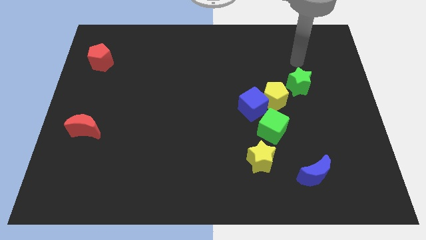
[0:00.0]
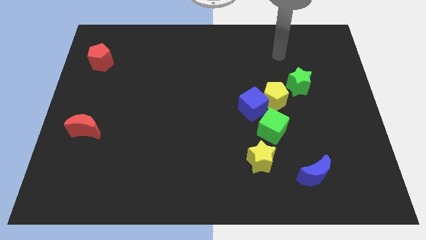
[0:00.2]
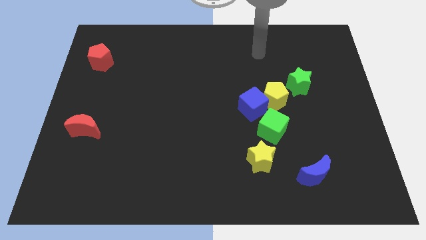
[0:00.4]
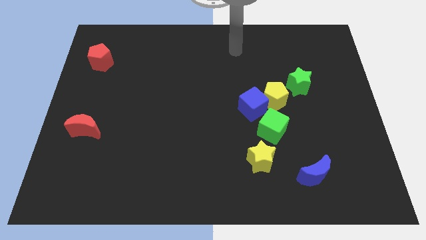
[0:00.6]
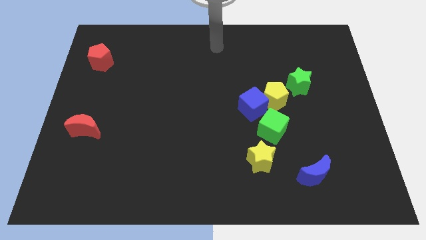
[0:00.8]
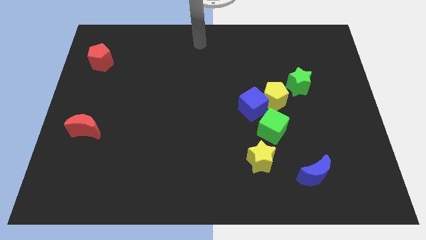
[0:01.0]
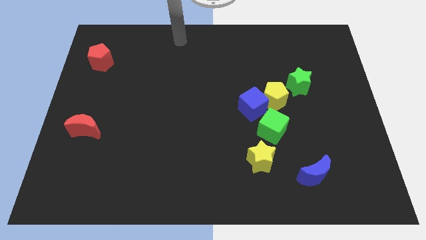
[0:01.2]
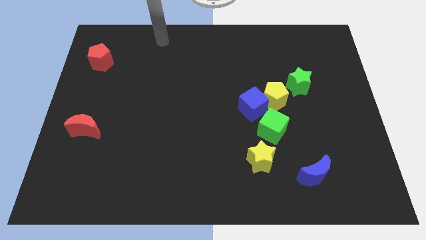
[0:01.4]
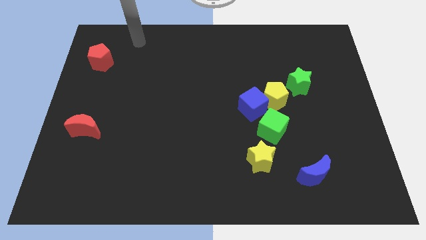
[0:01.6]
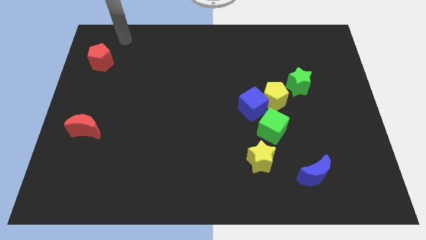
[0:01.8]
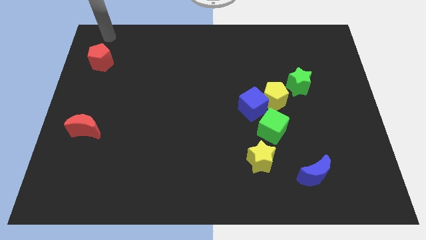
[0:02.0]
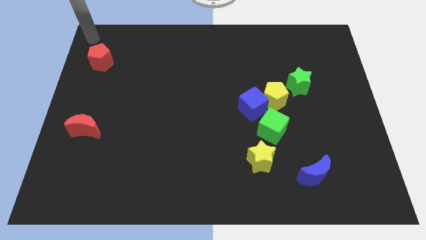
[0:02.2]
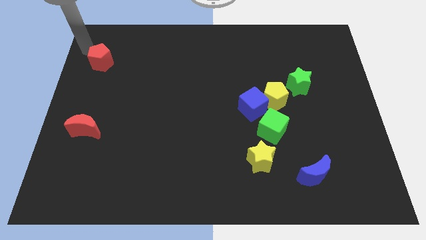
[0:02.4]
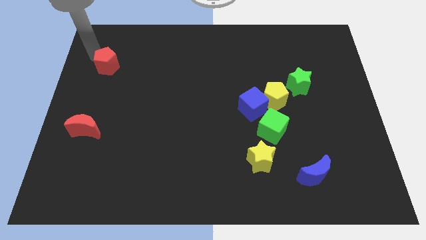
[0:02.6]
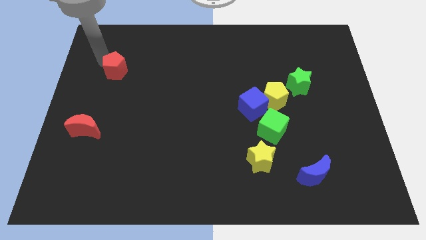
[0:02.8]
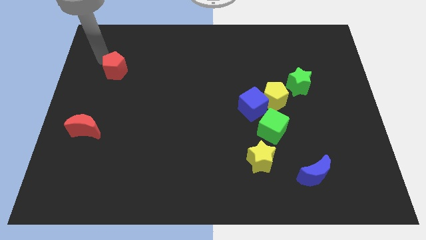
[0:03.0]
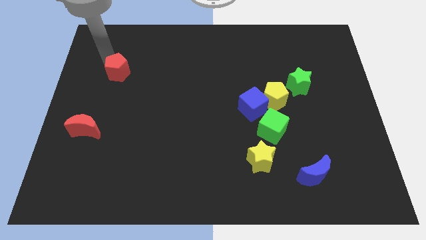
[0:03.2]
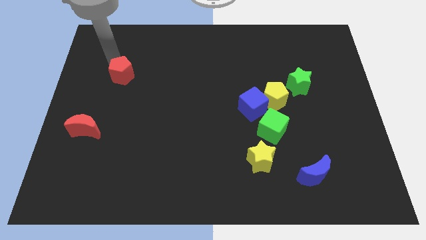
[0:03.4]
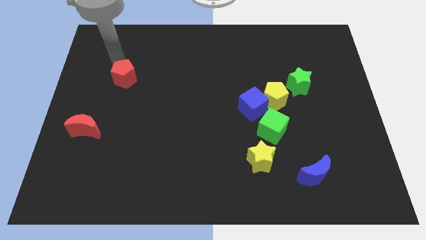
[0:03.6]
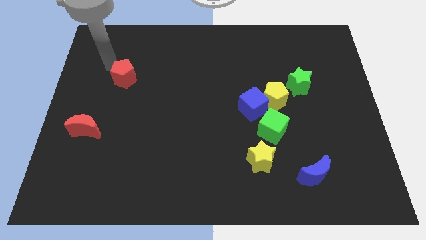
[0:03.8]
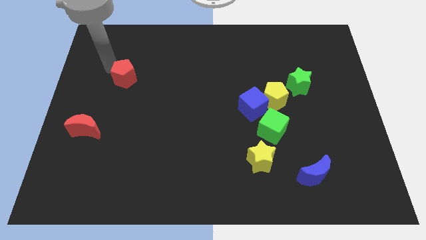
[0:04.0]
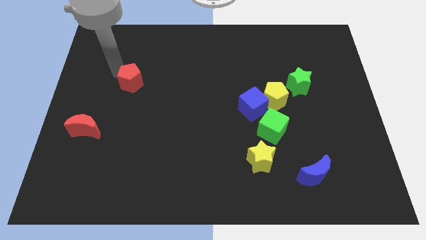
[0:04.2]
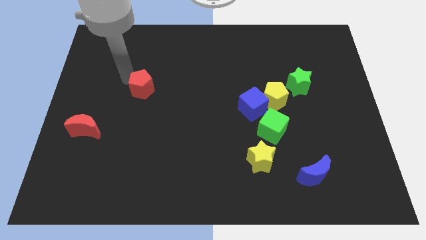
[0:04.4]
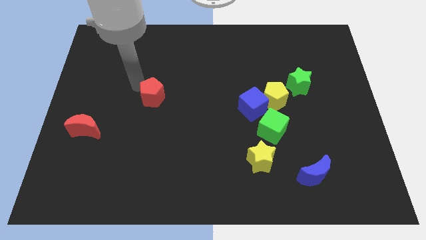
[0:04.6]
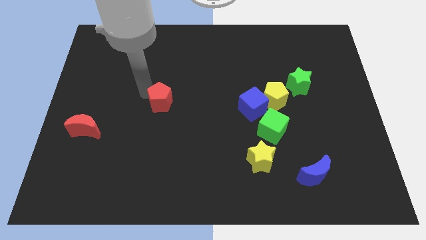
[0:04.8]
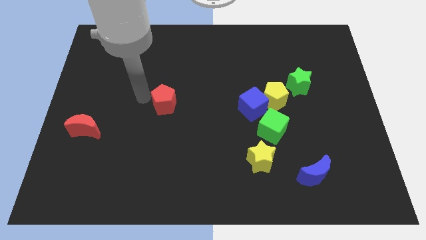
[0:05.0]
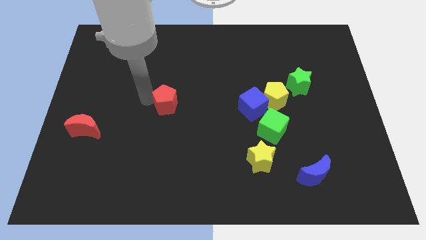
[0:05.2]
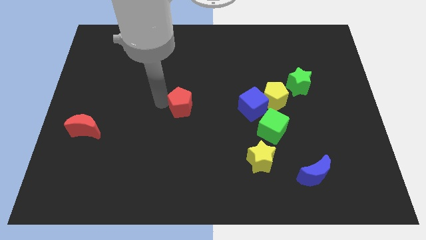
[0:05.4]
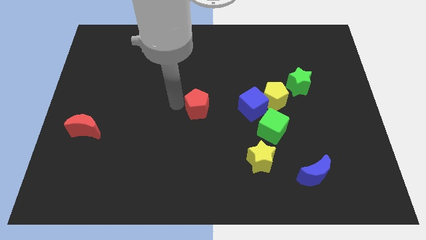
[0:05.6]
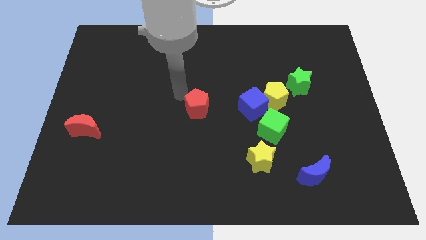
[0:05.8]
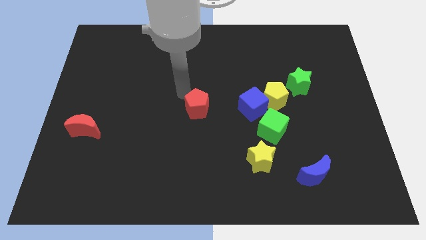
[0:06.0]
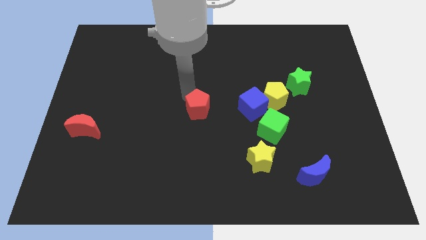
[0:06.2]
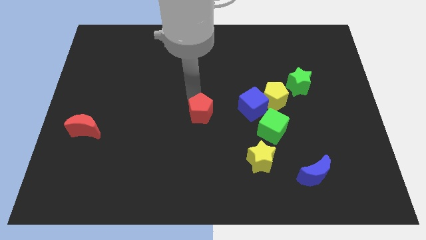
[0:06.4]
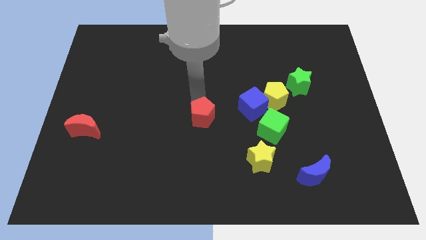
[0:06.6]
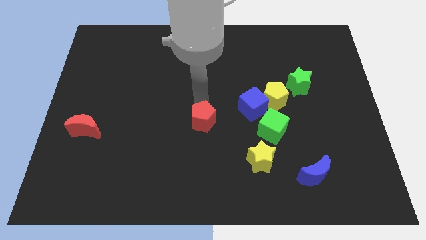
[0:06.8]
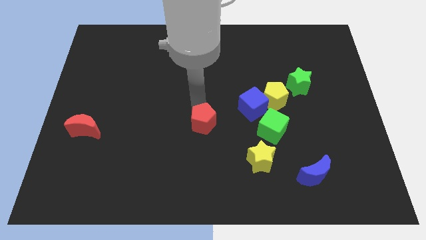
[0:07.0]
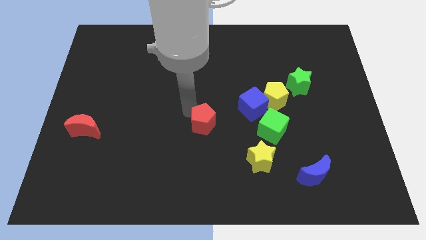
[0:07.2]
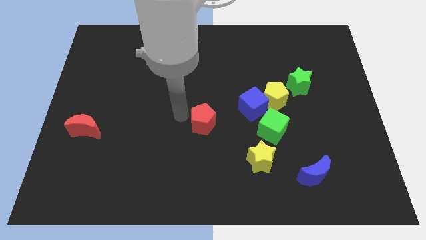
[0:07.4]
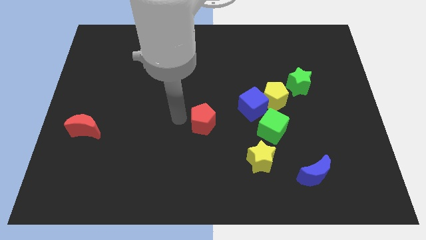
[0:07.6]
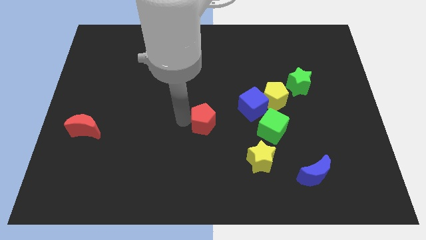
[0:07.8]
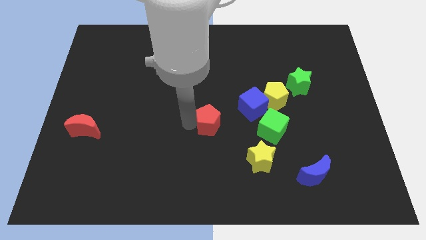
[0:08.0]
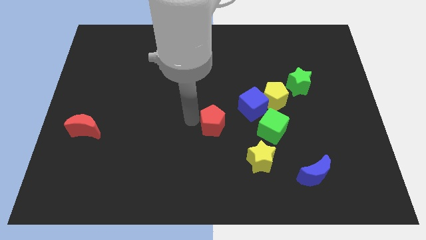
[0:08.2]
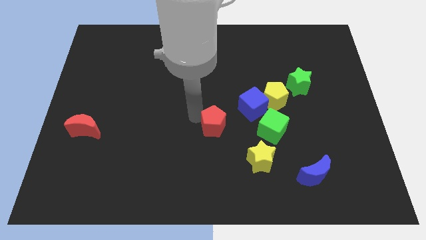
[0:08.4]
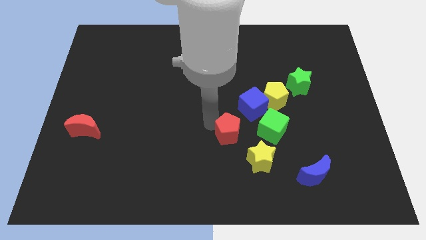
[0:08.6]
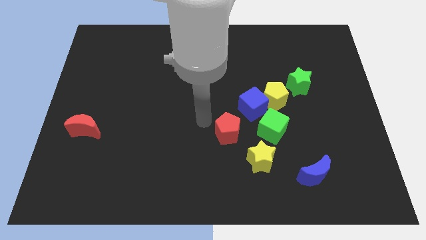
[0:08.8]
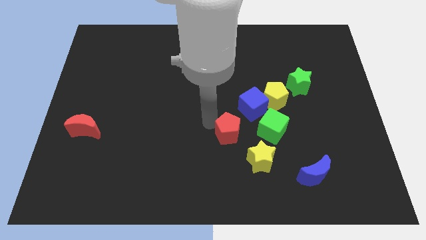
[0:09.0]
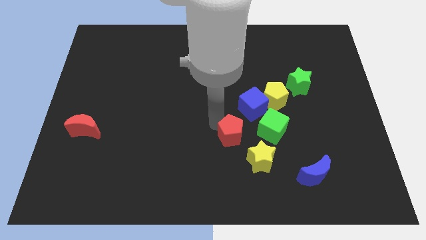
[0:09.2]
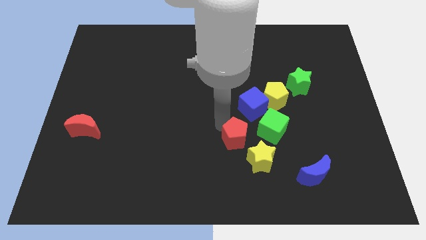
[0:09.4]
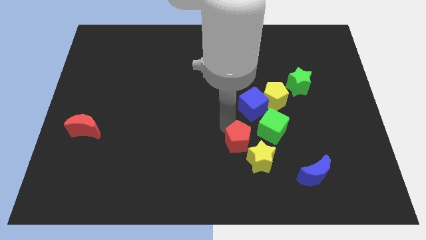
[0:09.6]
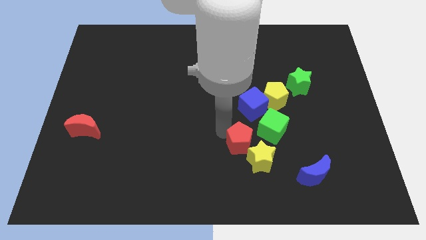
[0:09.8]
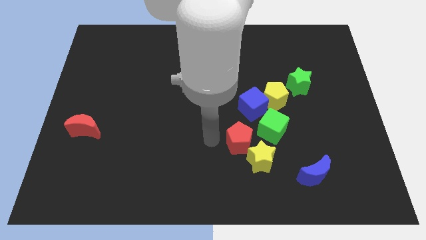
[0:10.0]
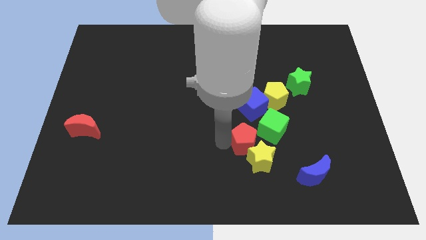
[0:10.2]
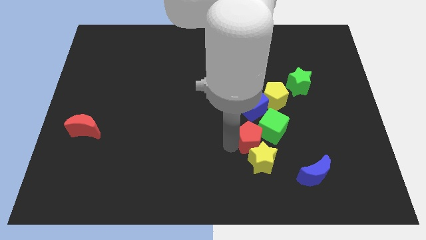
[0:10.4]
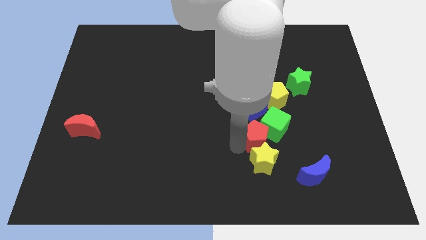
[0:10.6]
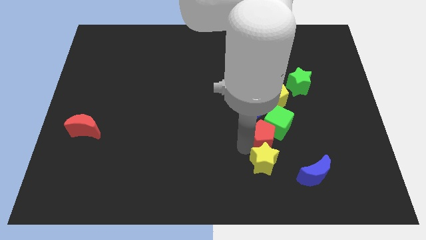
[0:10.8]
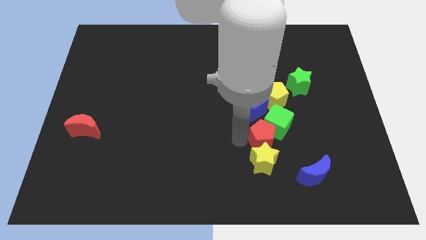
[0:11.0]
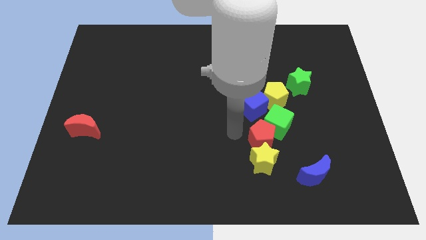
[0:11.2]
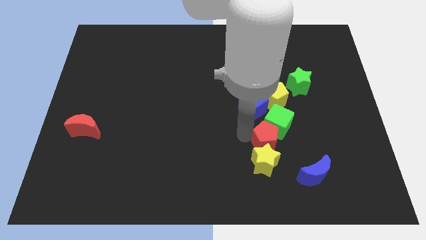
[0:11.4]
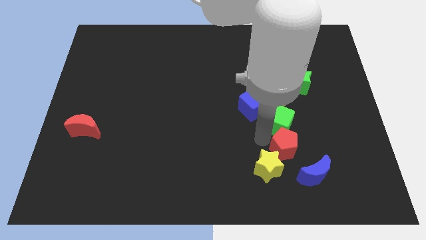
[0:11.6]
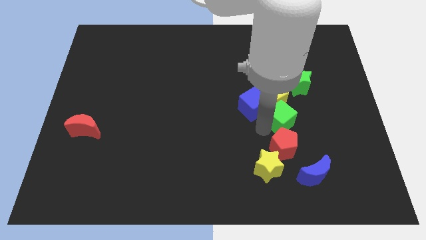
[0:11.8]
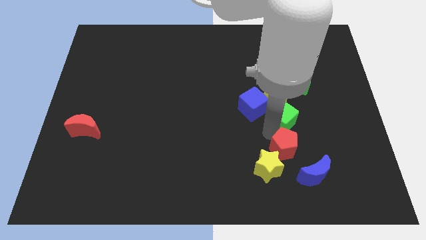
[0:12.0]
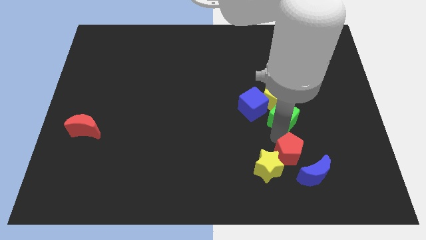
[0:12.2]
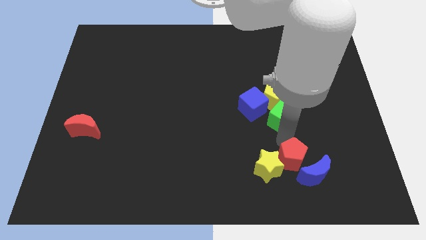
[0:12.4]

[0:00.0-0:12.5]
put the red pentagon towards the blue moon

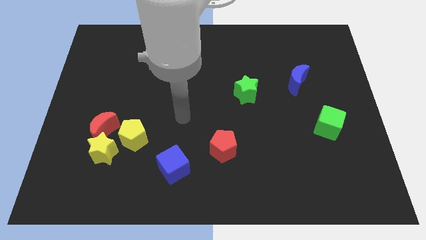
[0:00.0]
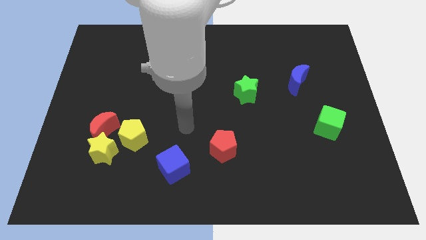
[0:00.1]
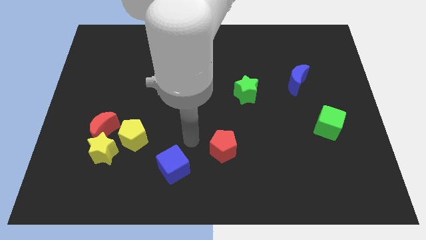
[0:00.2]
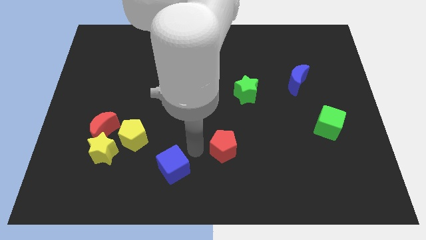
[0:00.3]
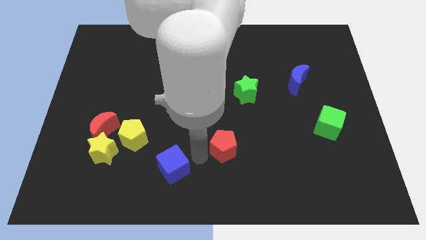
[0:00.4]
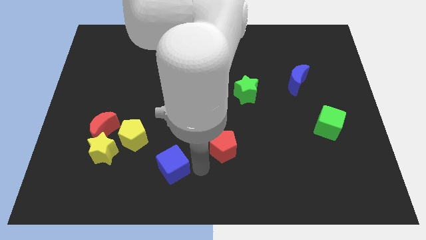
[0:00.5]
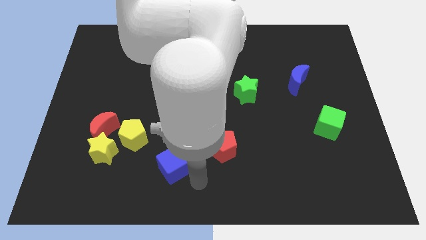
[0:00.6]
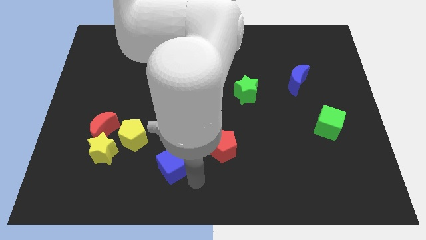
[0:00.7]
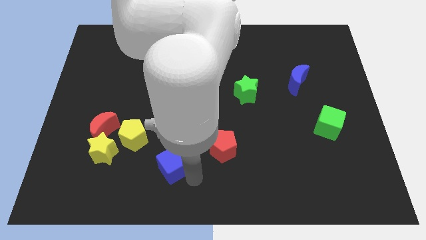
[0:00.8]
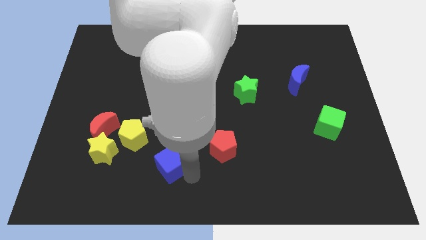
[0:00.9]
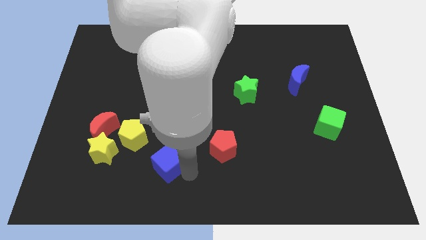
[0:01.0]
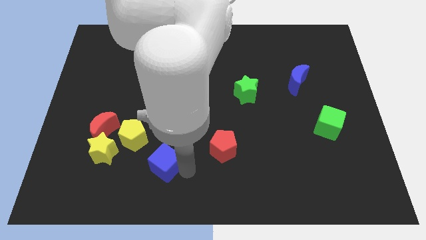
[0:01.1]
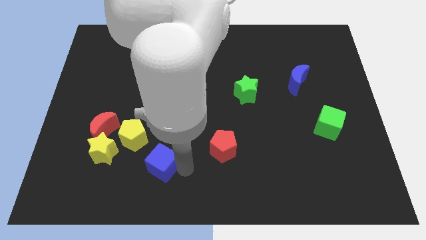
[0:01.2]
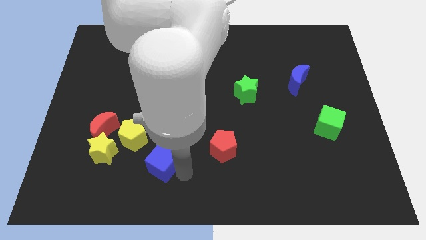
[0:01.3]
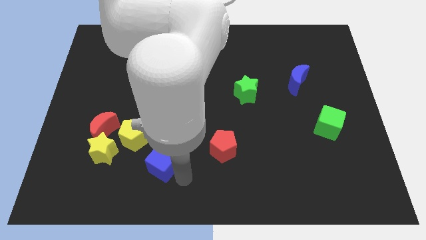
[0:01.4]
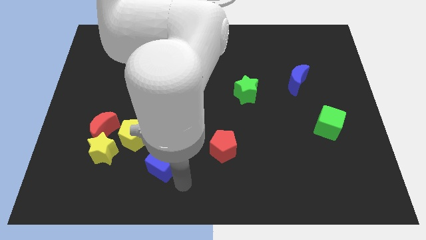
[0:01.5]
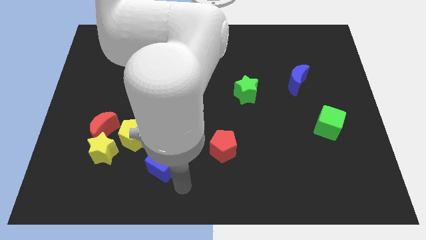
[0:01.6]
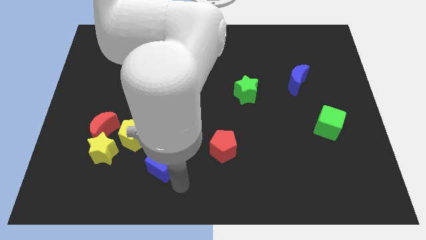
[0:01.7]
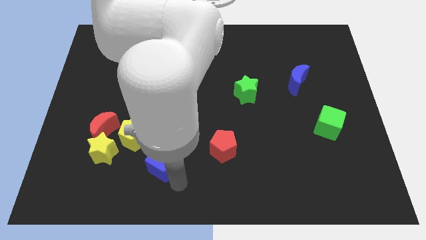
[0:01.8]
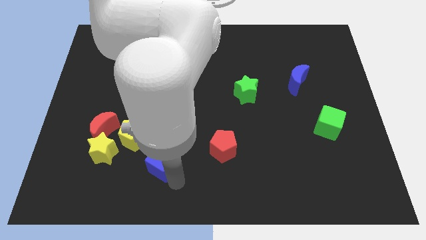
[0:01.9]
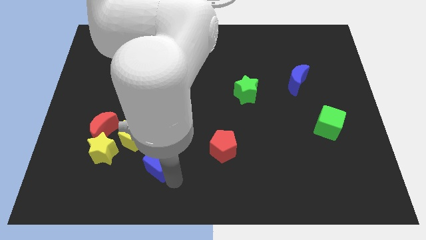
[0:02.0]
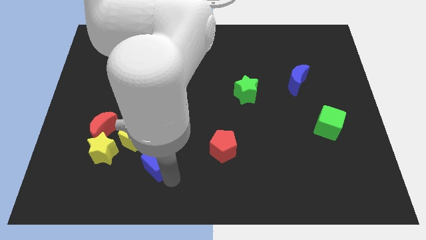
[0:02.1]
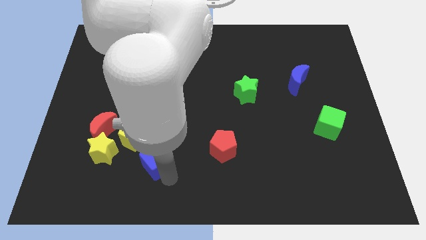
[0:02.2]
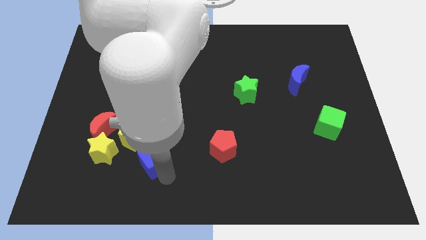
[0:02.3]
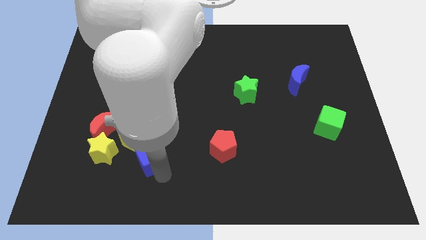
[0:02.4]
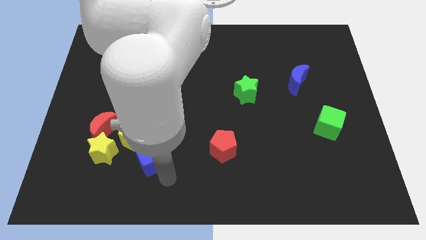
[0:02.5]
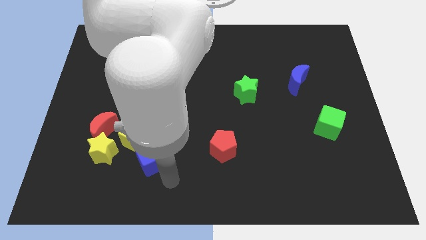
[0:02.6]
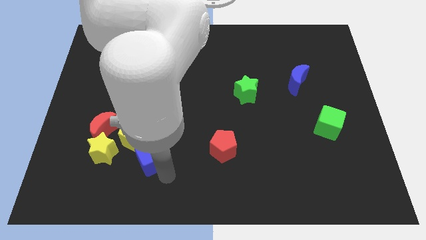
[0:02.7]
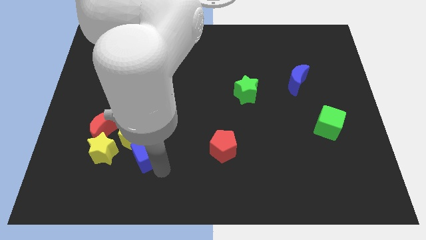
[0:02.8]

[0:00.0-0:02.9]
put the blue cube to the yellow pentagon
